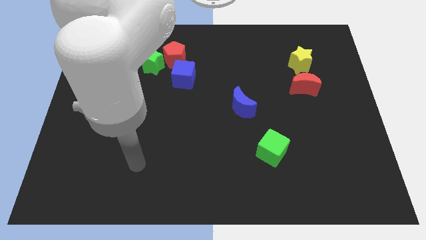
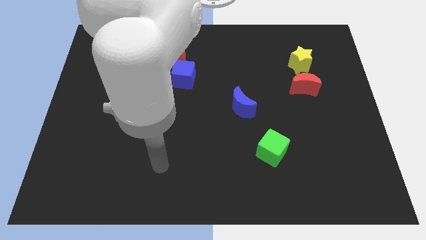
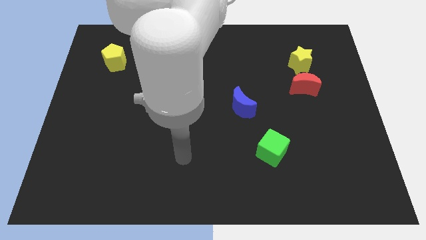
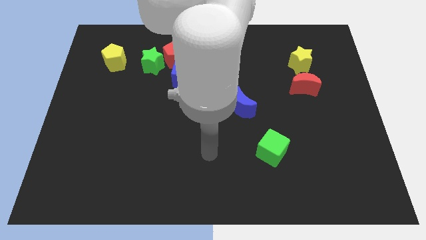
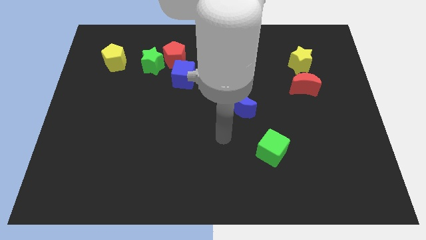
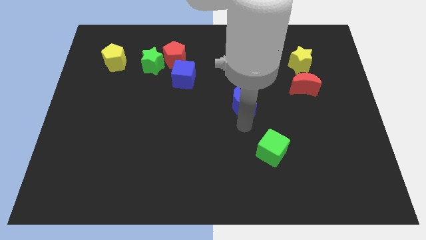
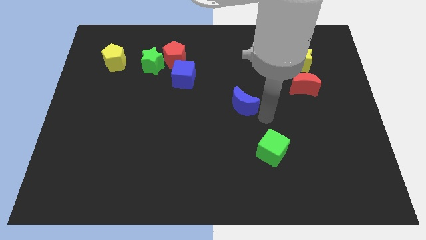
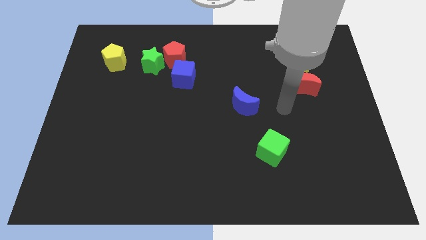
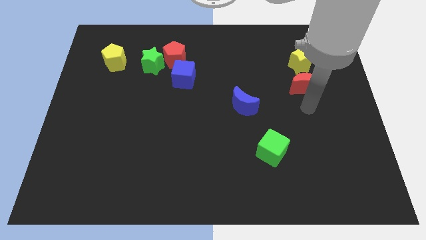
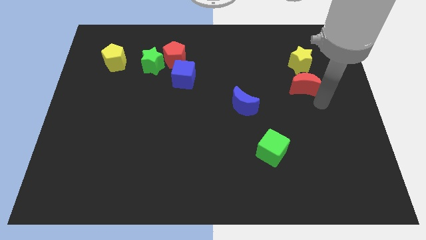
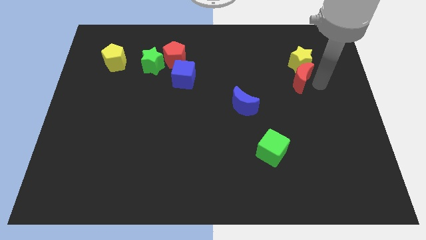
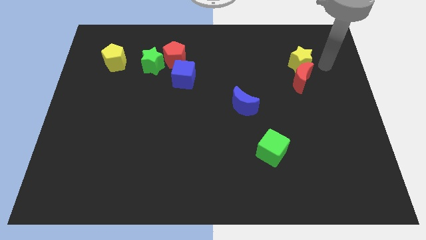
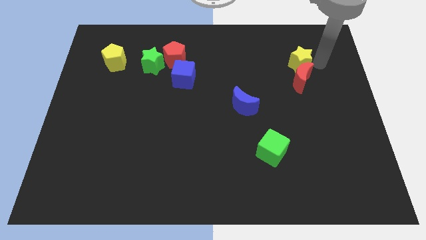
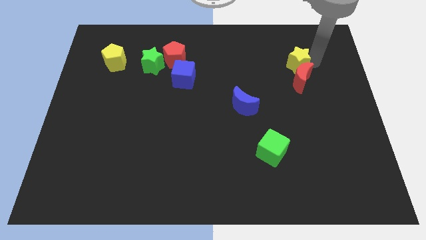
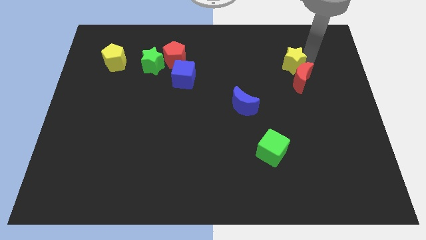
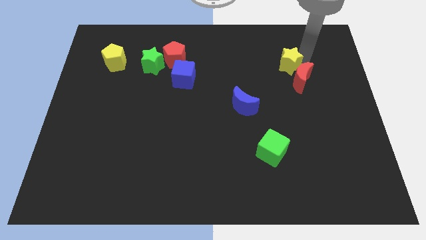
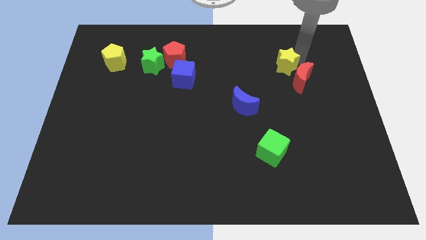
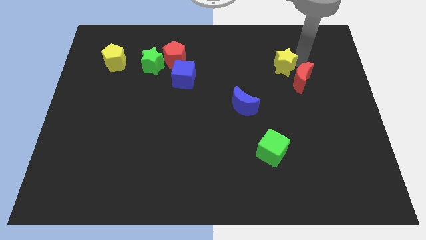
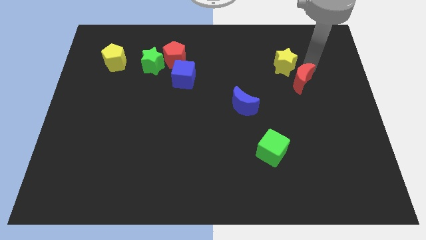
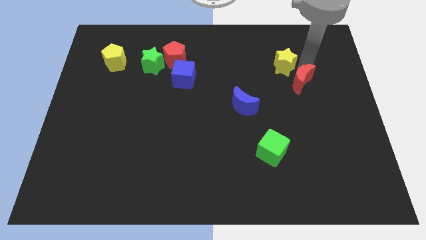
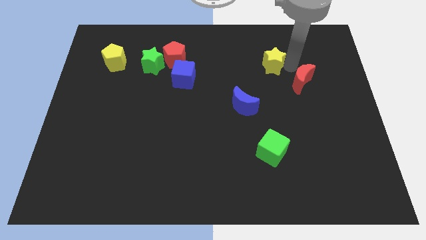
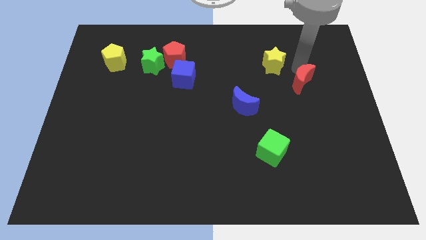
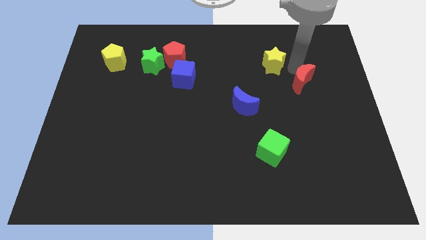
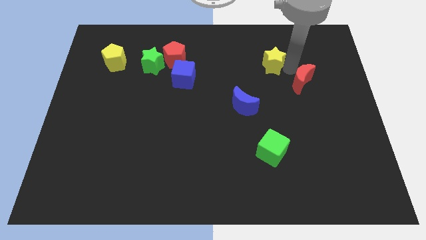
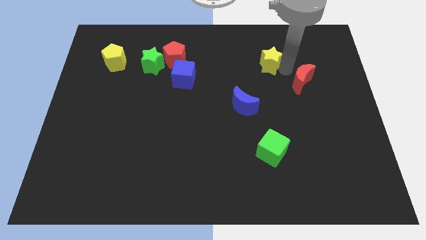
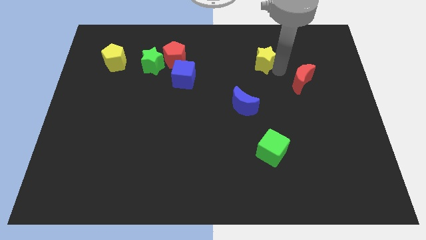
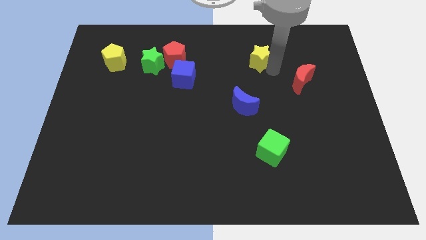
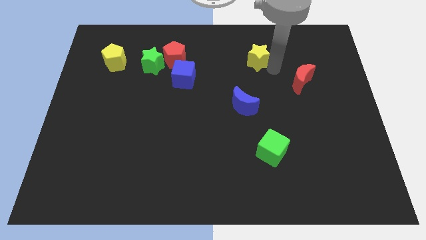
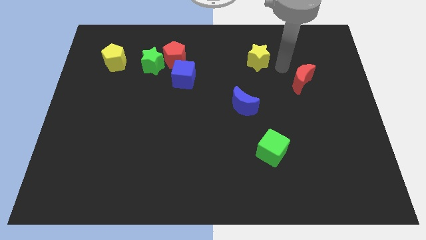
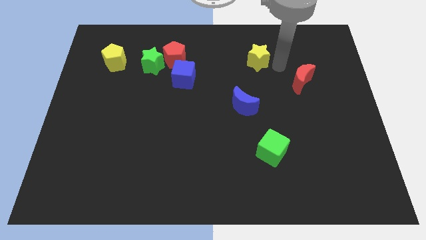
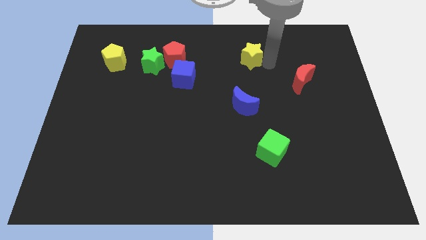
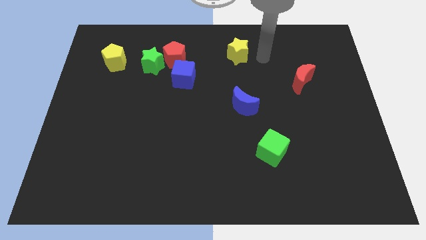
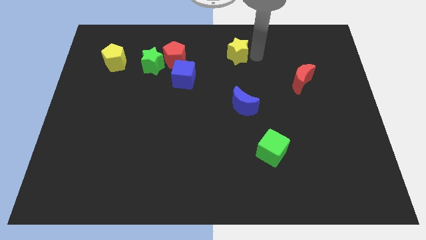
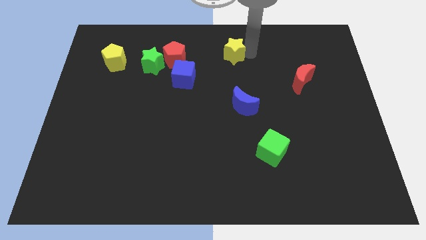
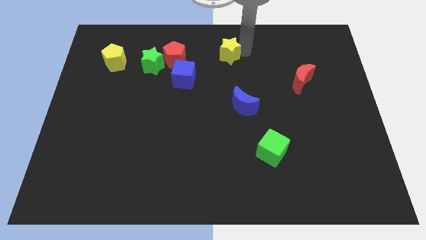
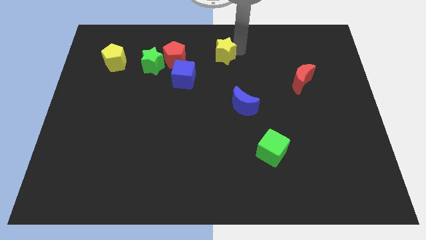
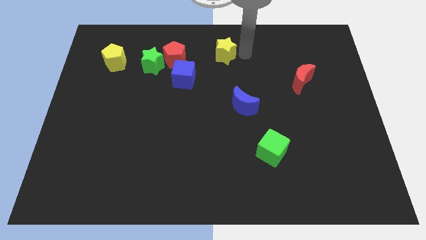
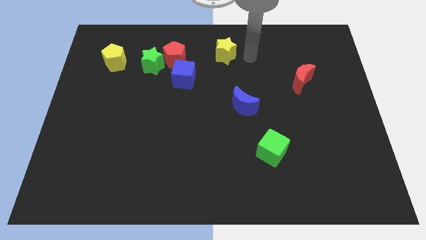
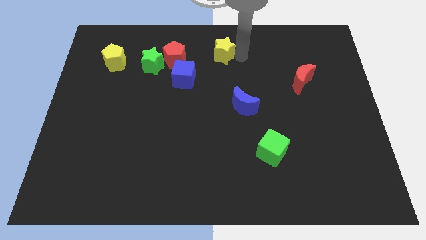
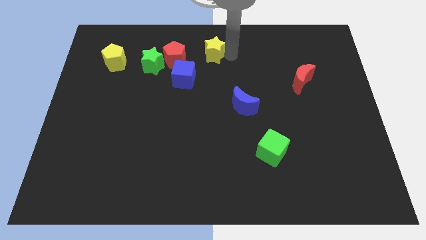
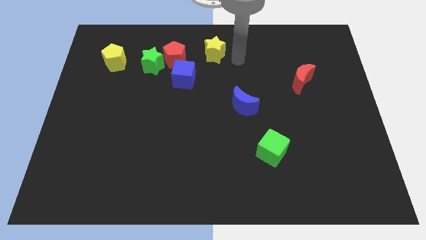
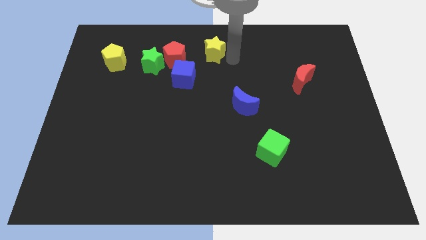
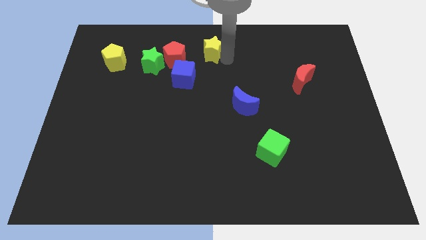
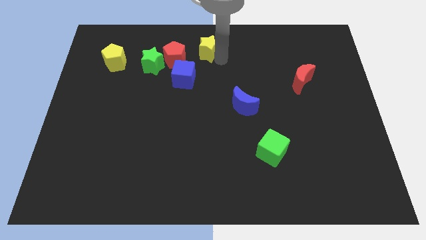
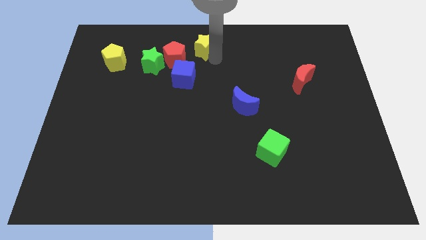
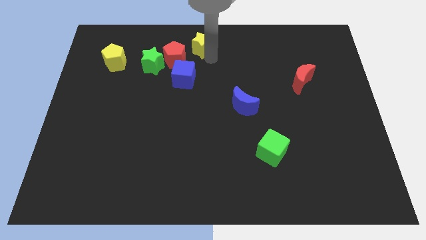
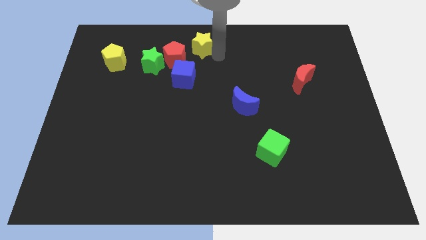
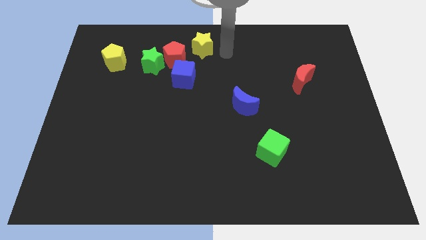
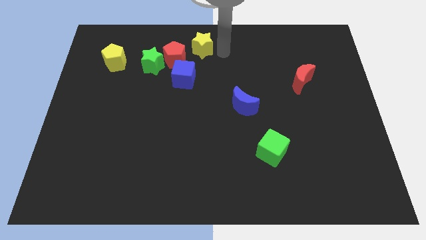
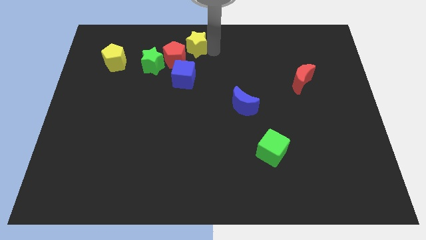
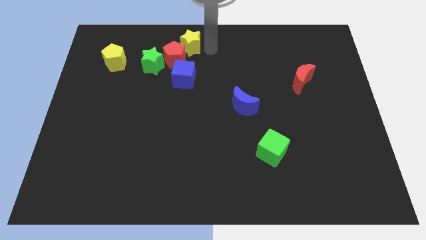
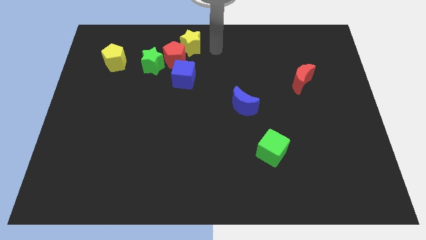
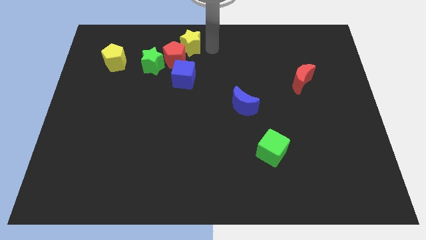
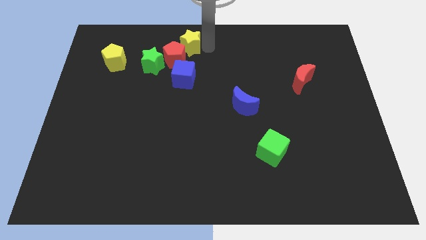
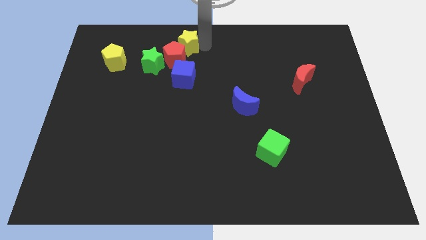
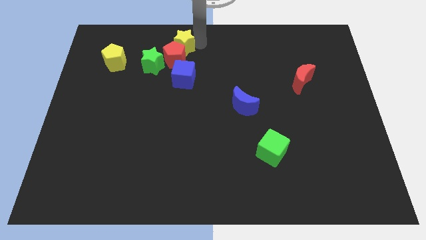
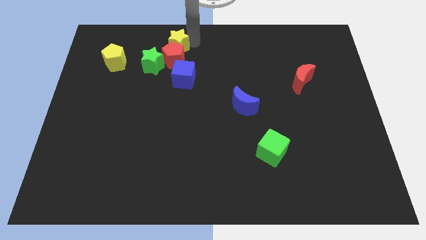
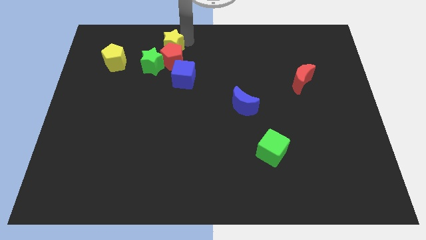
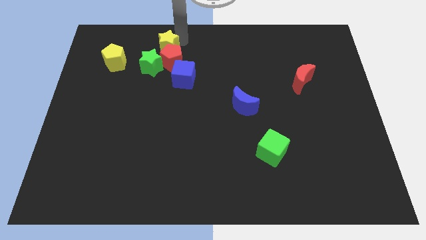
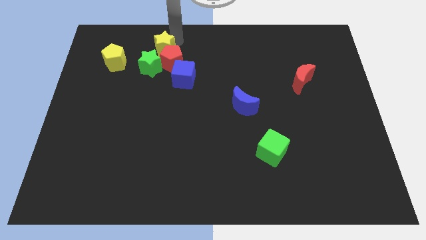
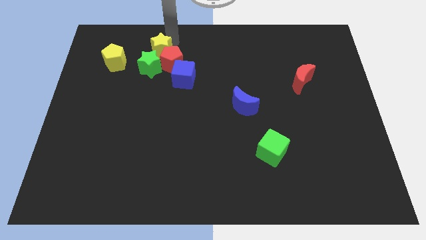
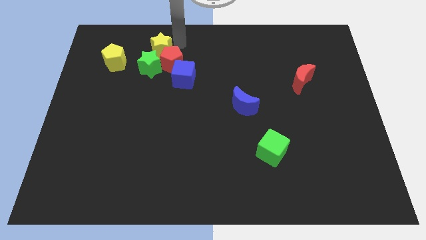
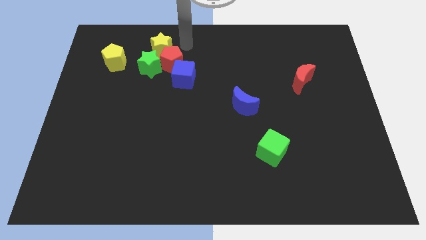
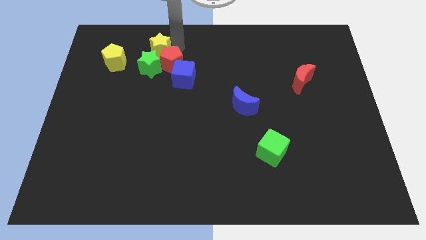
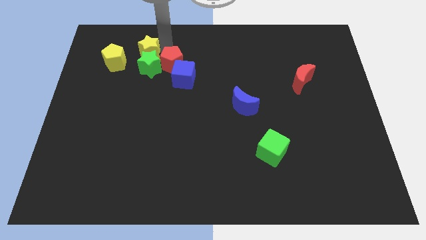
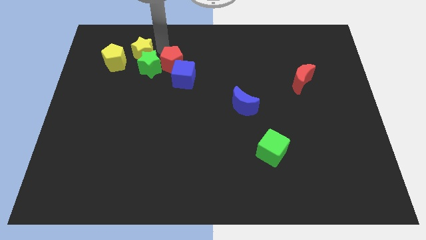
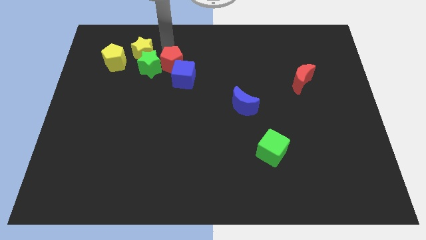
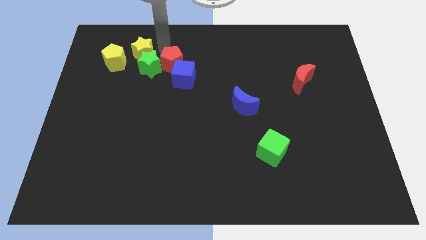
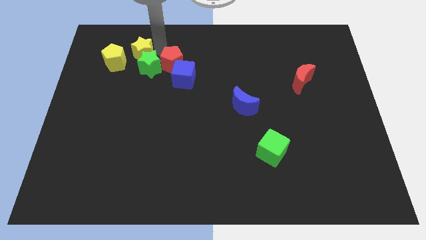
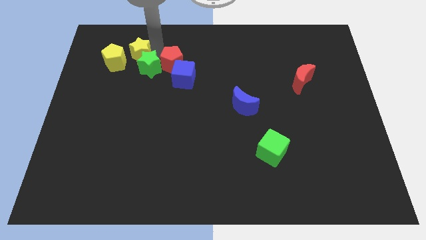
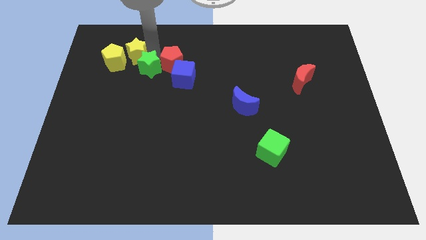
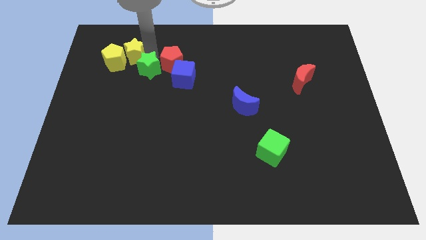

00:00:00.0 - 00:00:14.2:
put the yellow star close to the yellow pentagon
